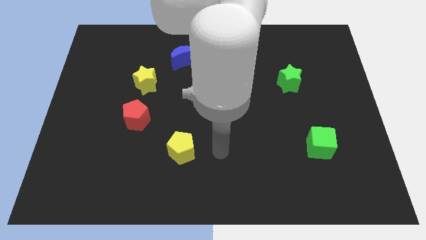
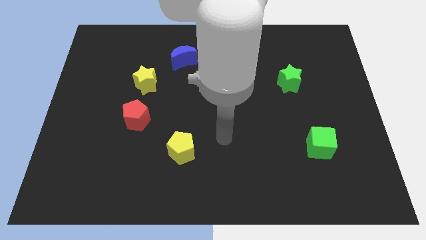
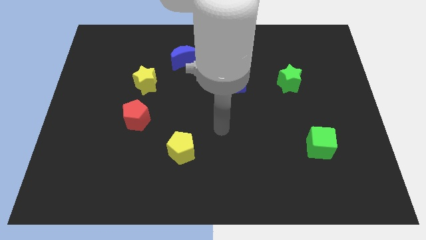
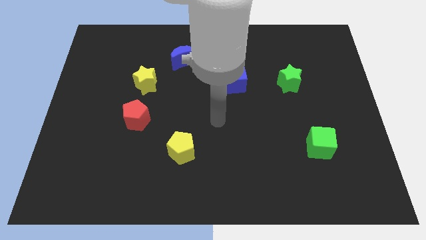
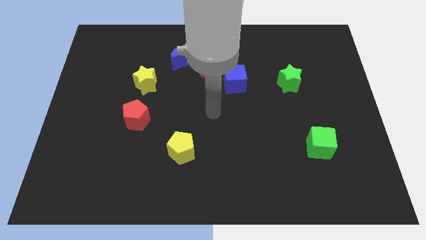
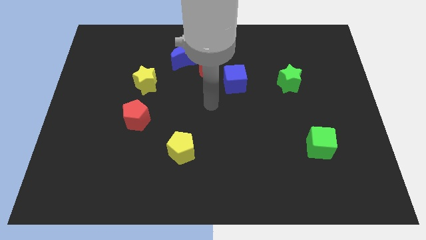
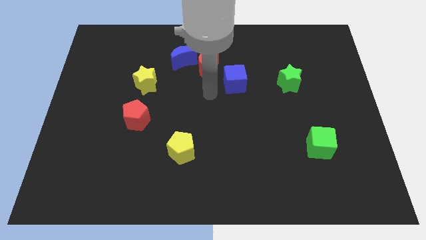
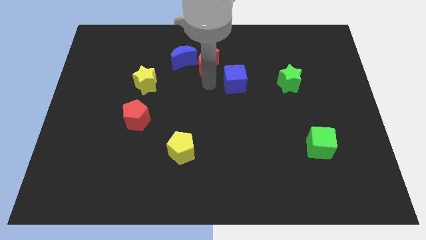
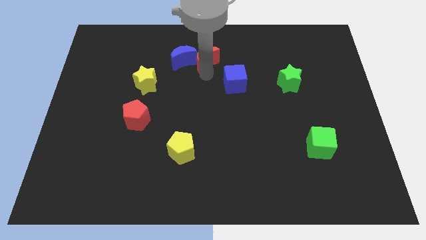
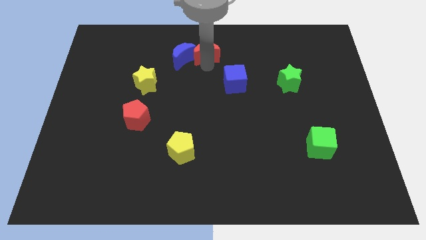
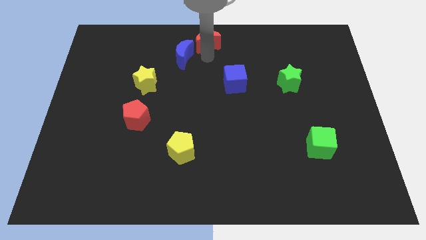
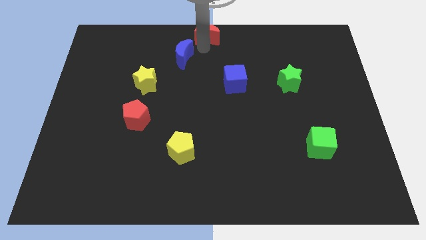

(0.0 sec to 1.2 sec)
pull the blue moon apart from the red moon

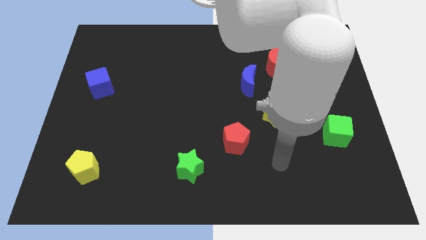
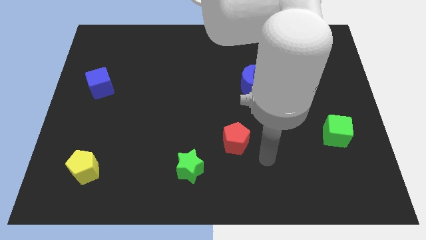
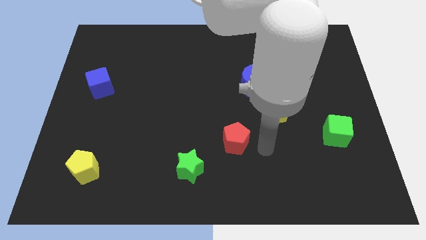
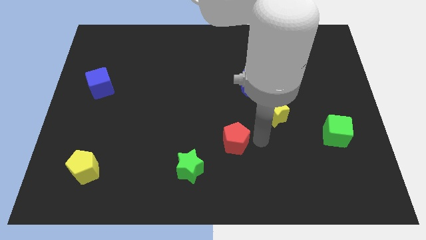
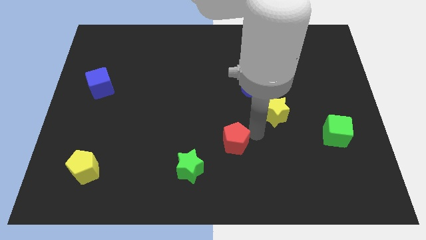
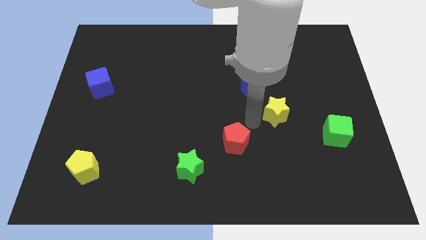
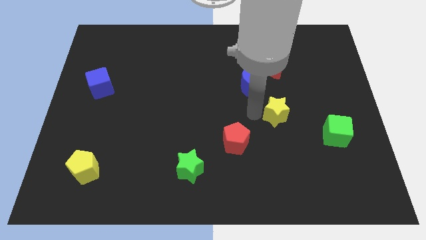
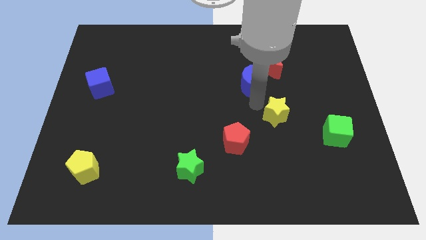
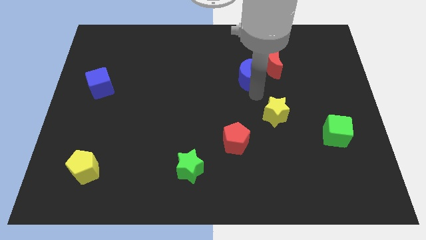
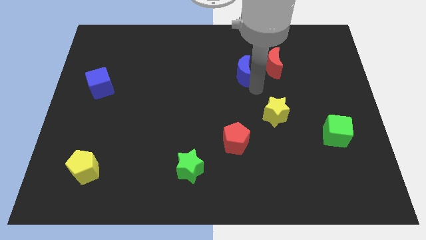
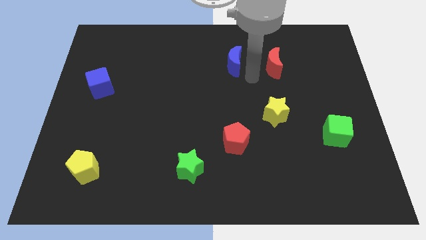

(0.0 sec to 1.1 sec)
pull the red moon apart from the blue moon

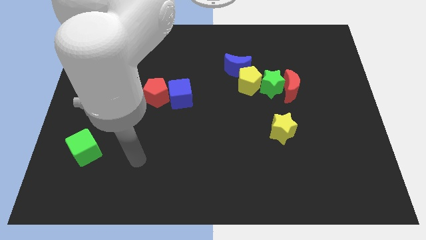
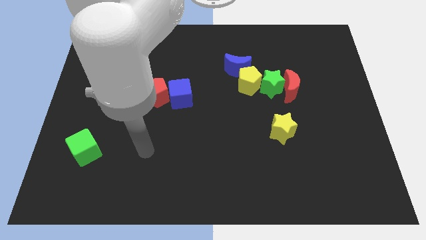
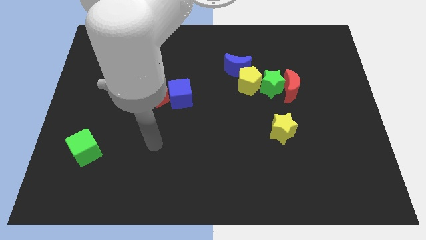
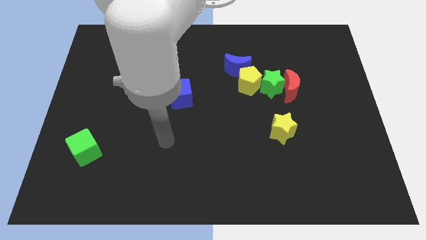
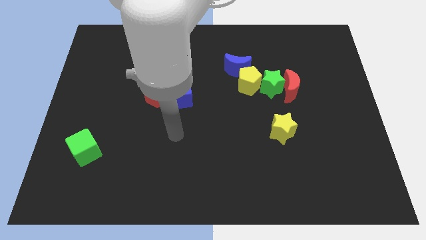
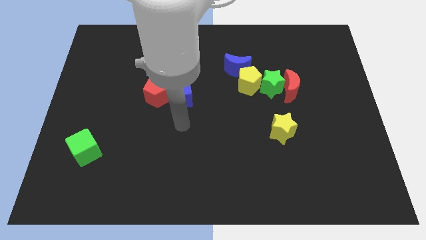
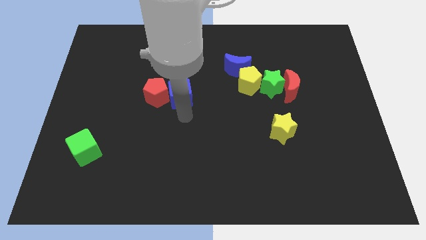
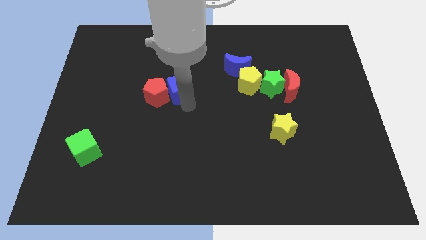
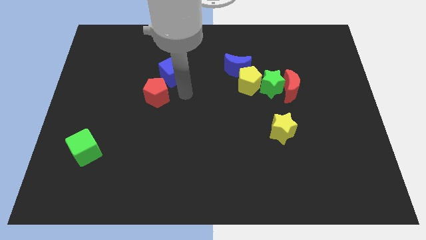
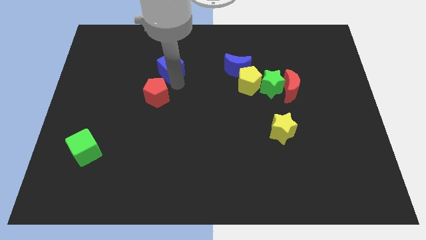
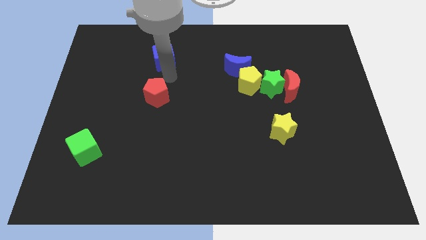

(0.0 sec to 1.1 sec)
pull the red pentagon apart from the blue cube

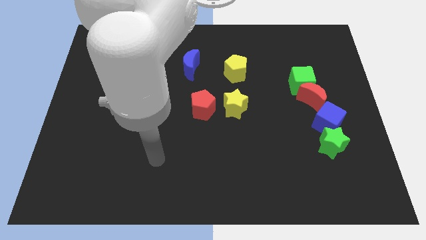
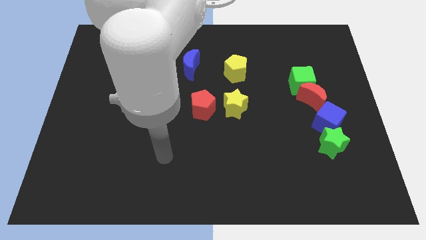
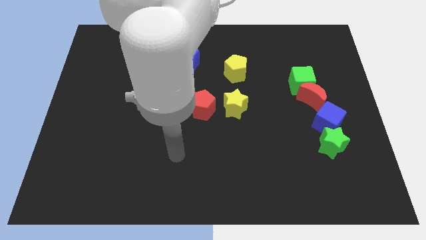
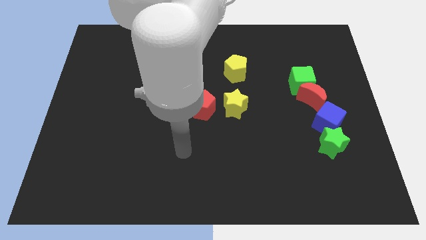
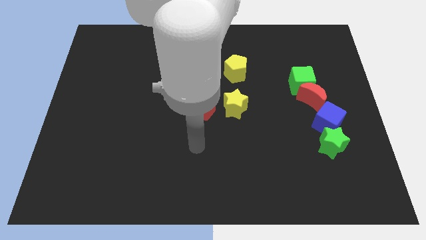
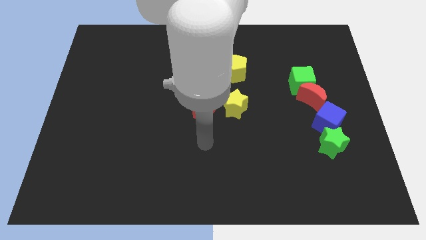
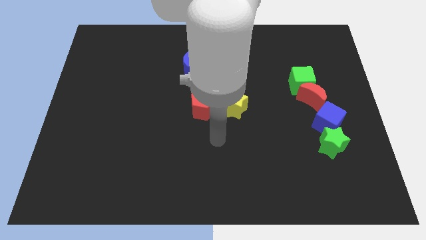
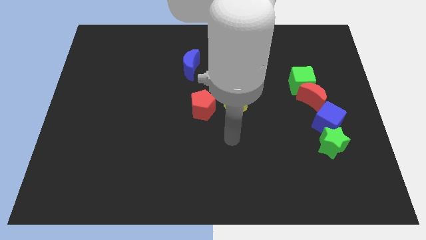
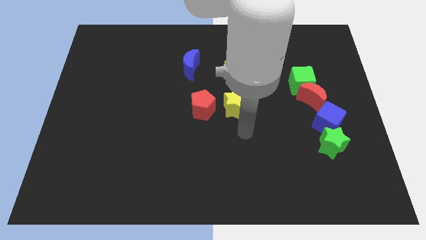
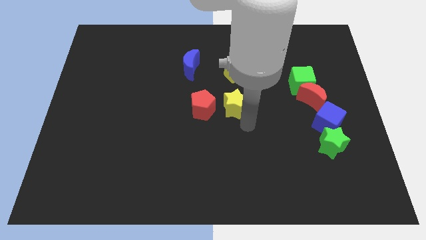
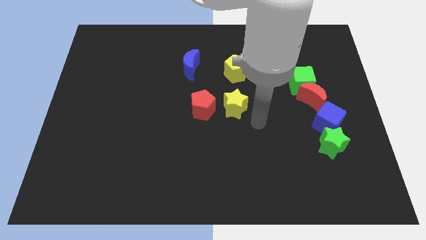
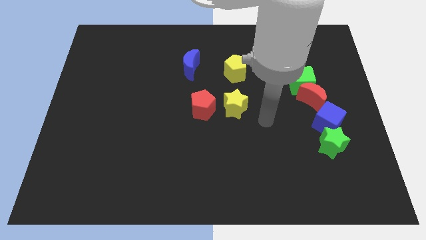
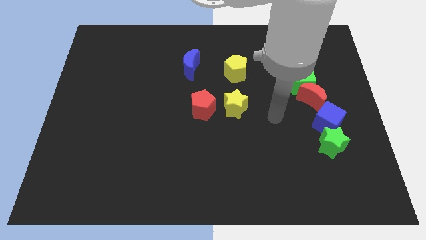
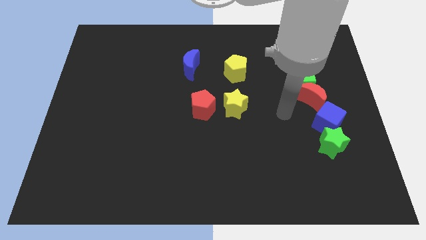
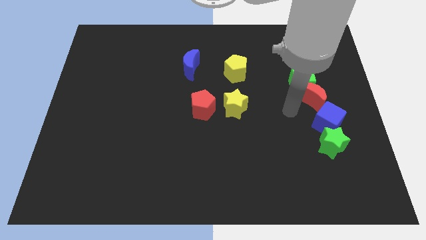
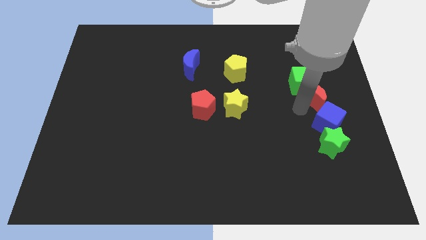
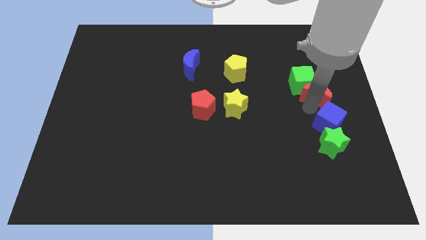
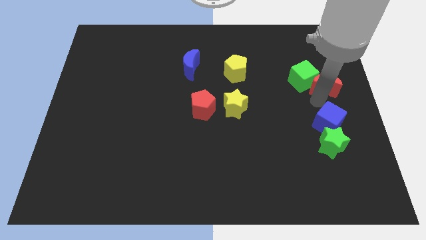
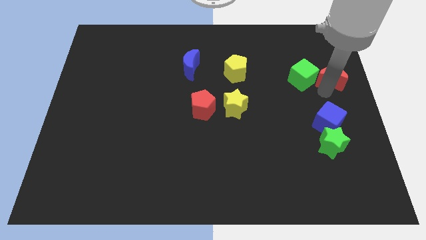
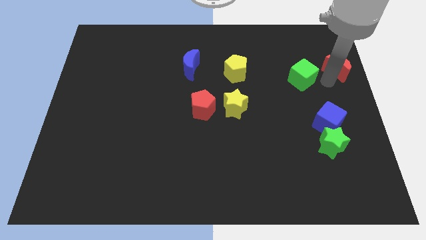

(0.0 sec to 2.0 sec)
move the green cube away from the red moon

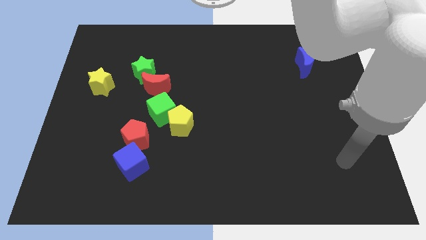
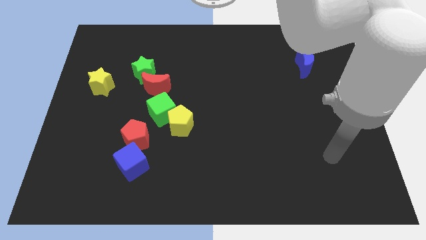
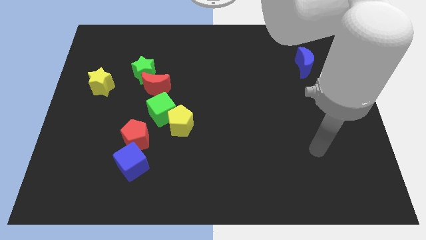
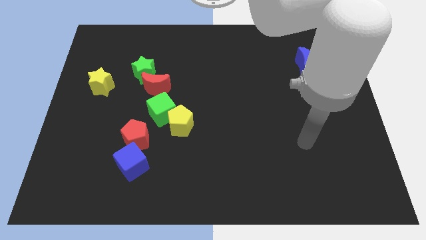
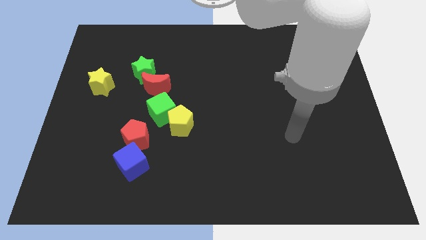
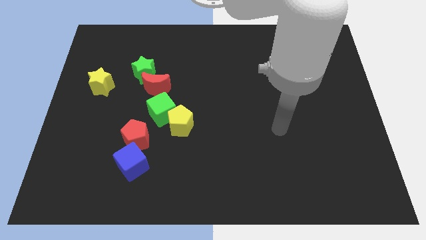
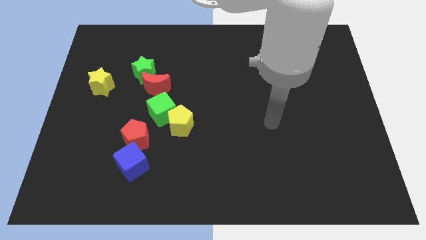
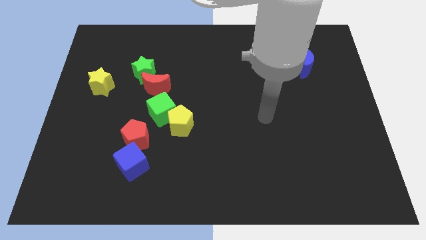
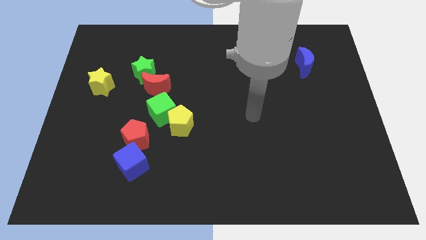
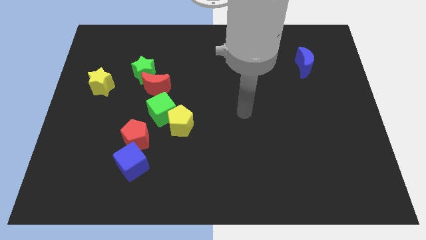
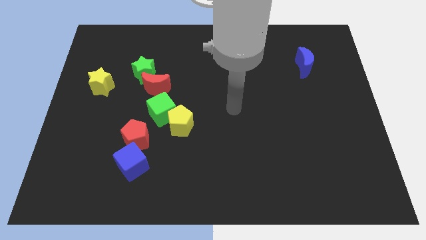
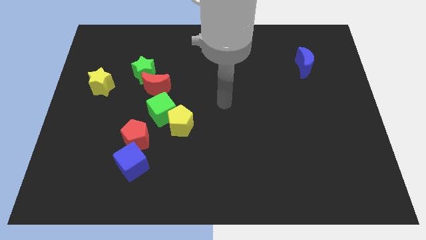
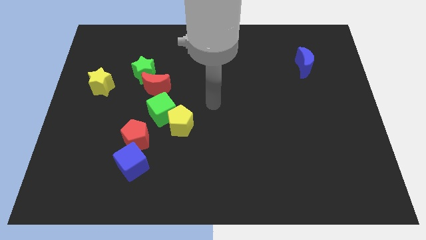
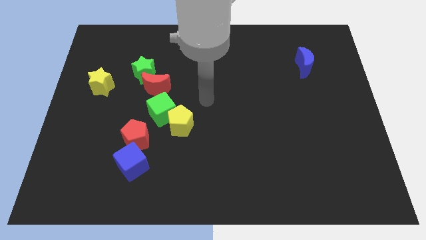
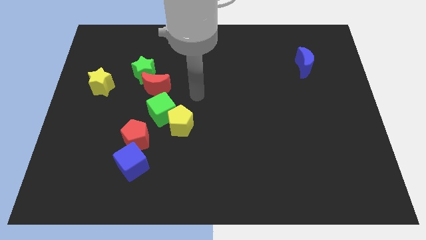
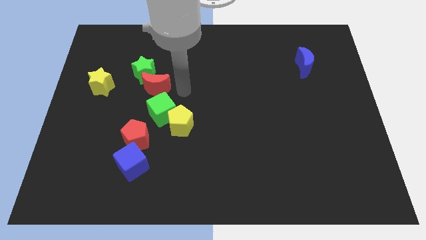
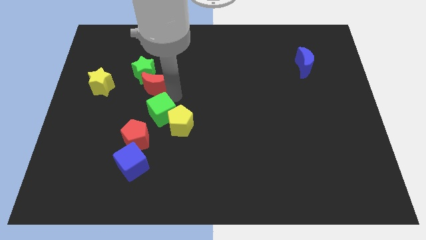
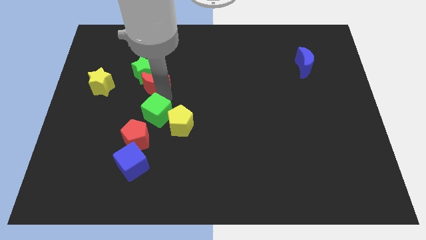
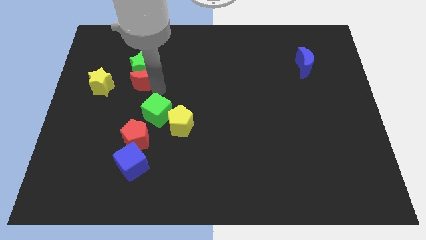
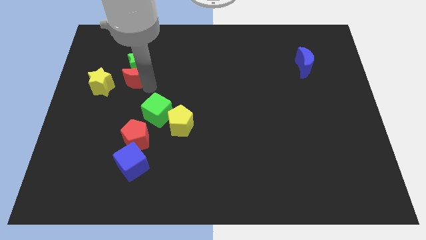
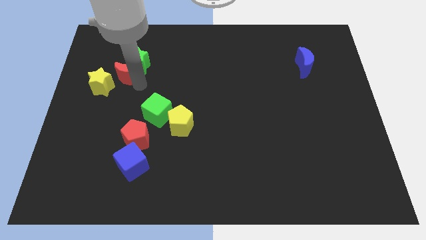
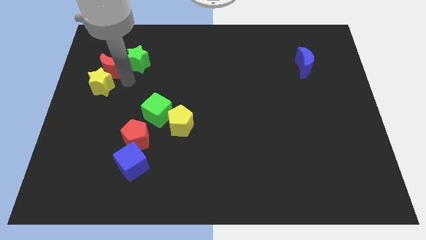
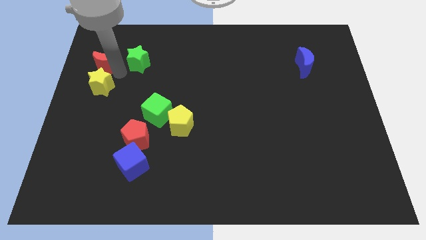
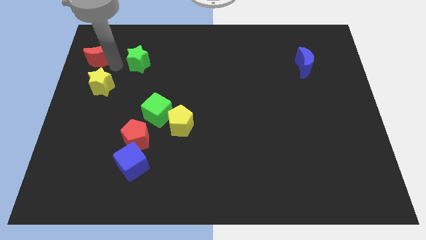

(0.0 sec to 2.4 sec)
pull the green star apart from the red moon

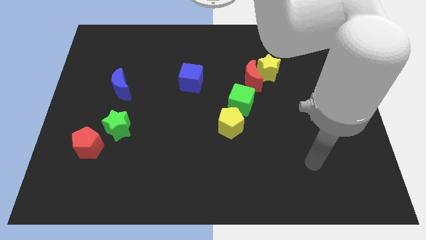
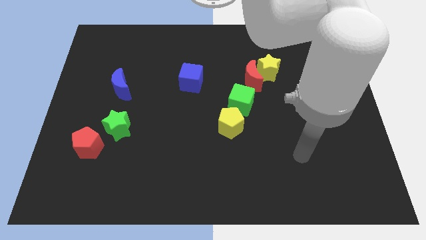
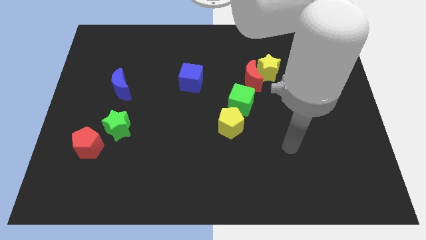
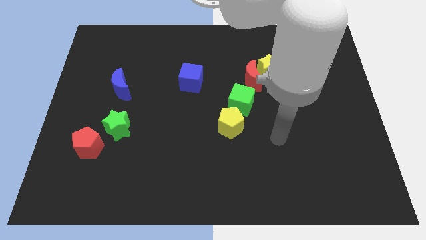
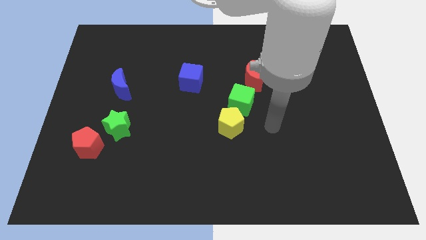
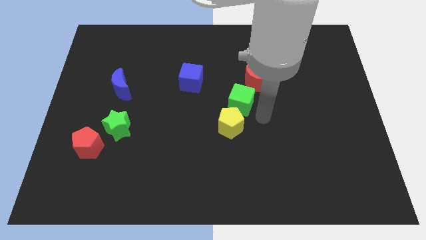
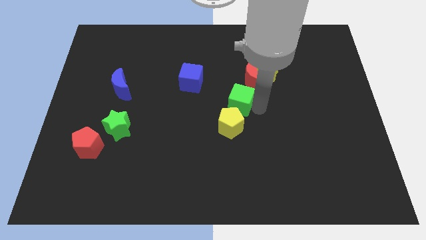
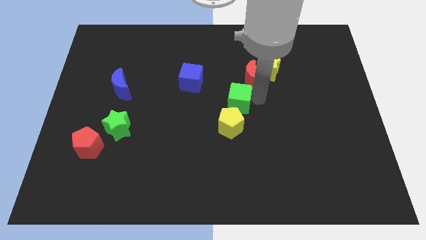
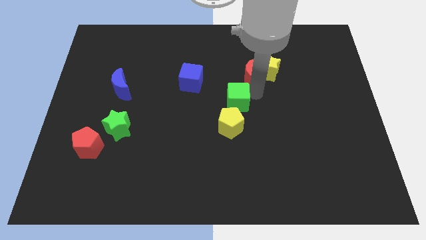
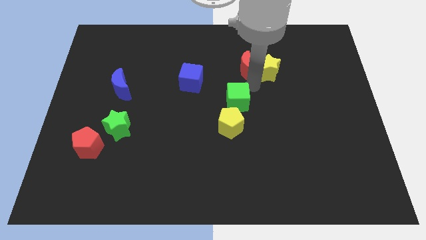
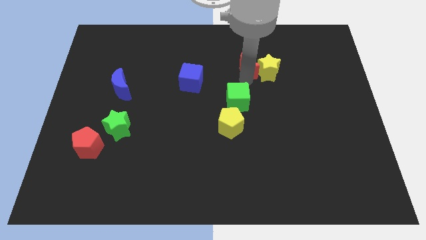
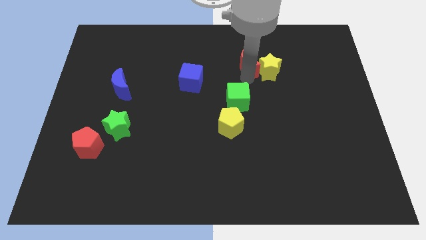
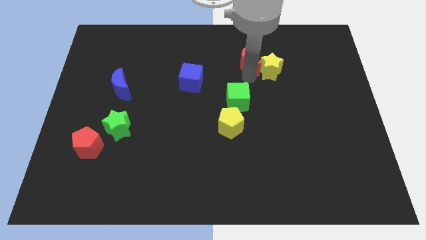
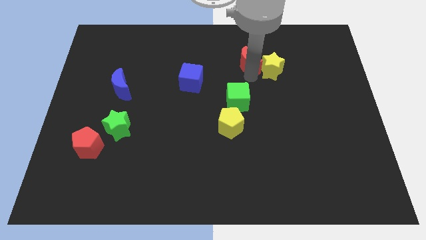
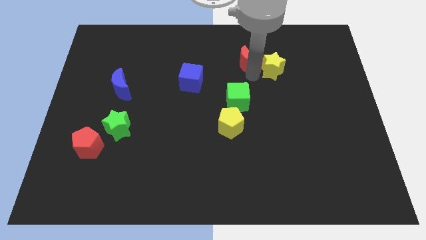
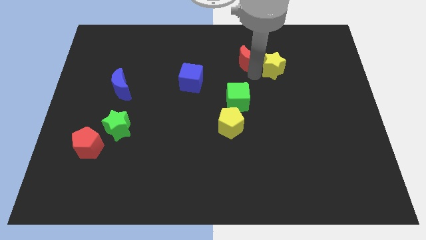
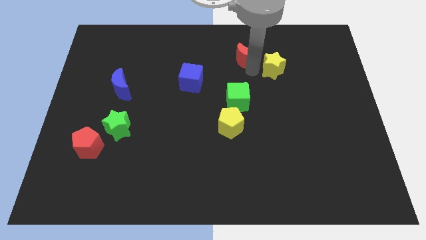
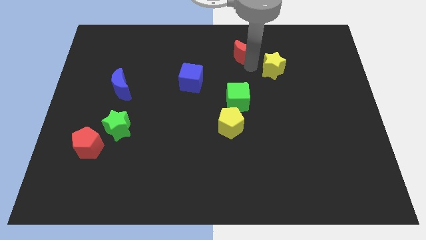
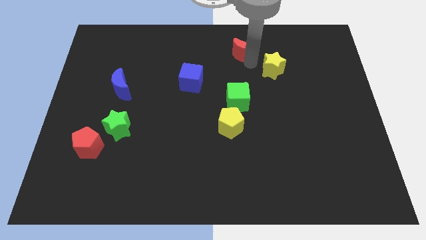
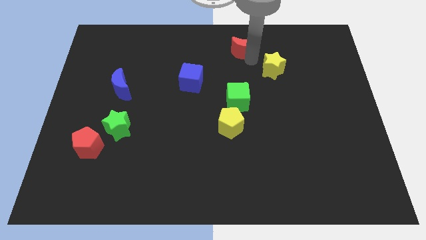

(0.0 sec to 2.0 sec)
separate the yellow star from the red moon
